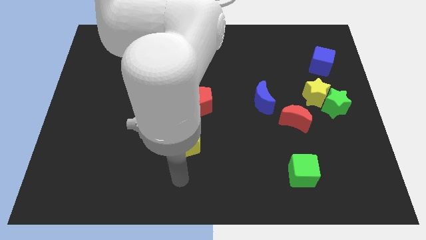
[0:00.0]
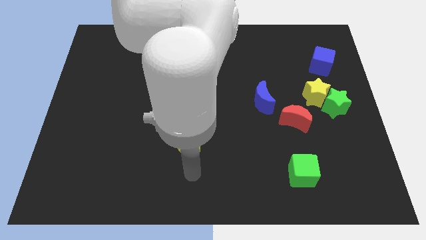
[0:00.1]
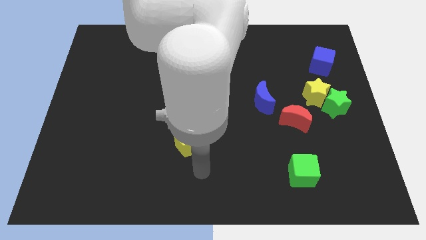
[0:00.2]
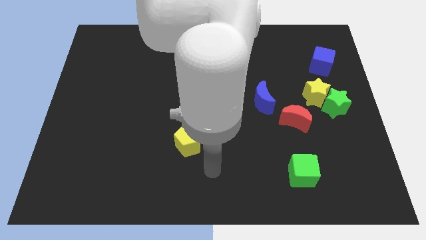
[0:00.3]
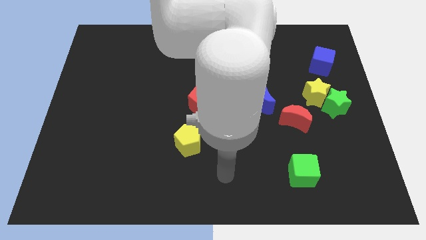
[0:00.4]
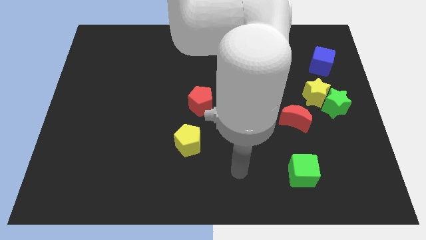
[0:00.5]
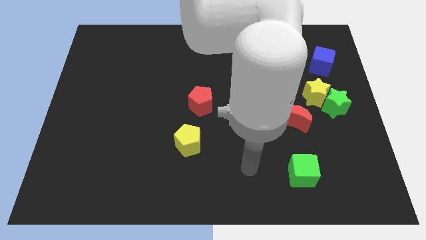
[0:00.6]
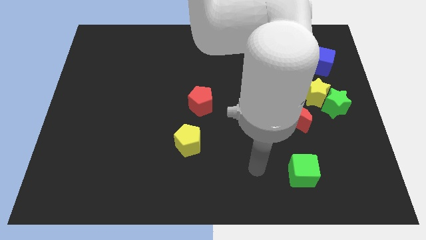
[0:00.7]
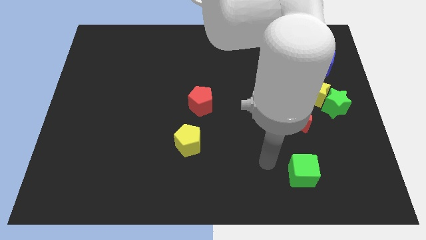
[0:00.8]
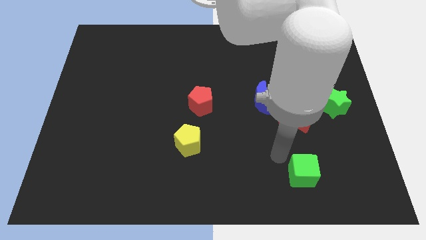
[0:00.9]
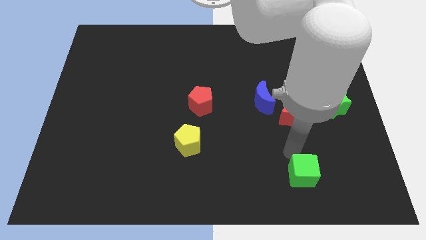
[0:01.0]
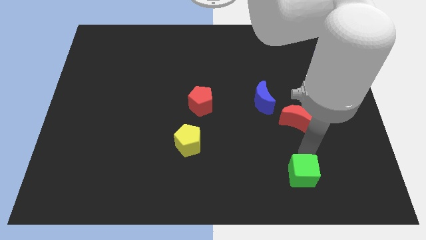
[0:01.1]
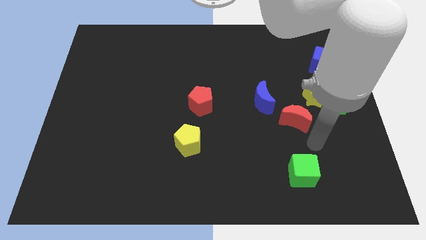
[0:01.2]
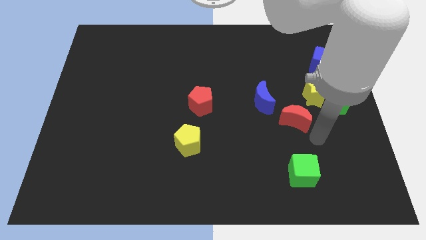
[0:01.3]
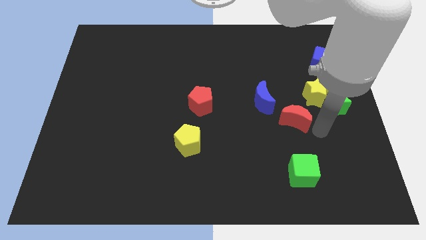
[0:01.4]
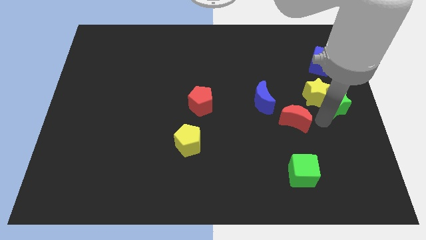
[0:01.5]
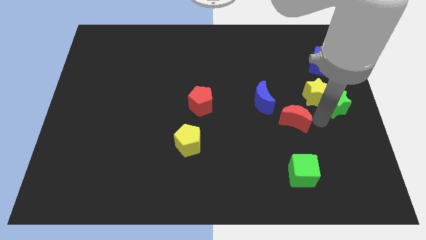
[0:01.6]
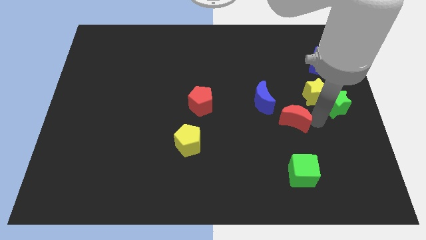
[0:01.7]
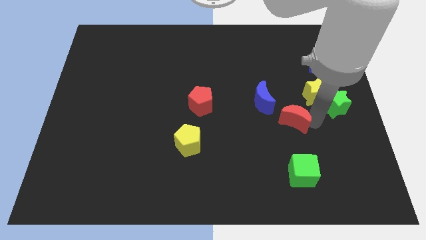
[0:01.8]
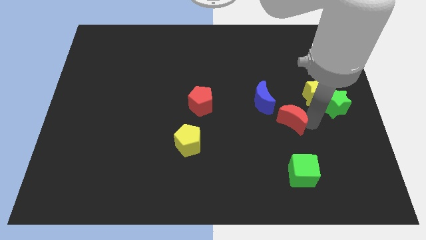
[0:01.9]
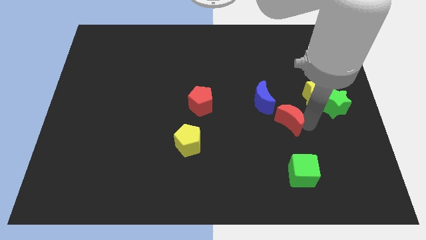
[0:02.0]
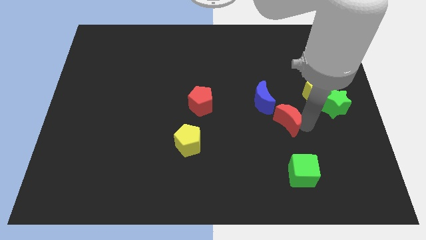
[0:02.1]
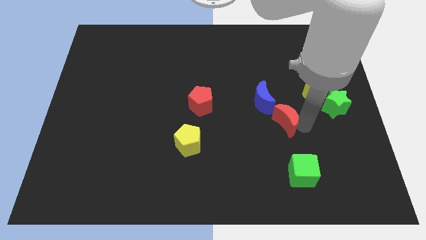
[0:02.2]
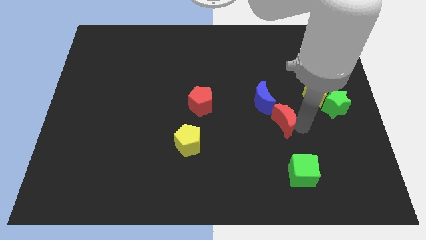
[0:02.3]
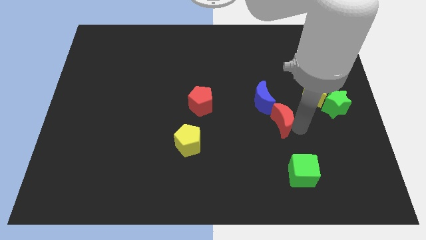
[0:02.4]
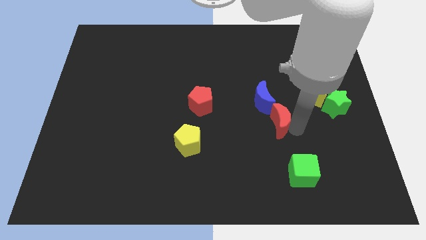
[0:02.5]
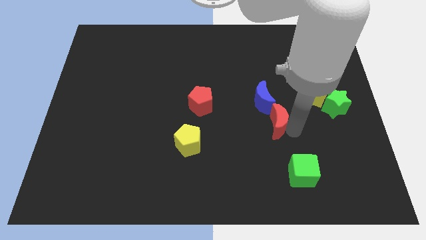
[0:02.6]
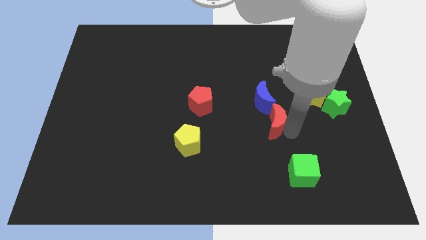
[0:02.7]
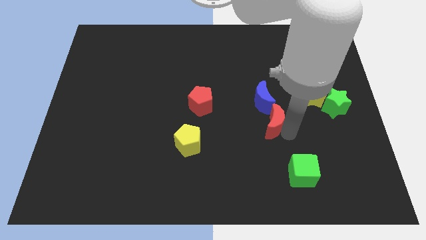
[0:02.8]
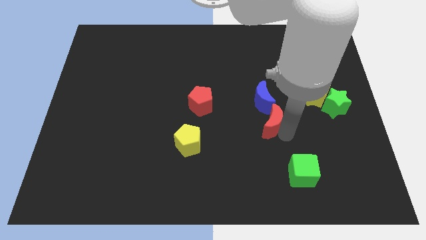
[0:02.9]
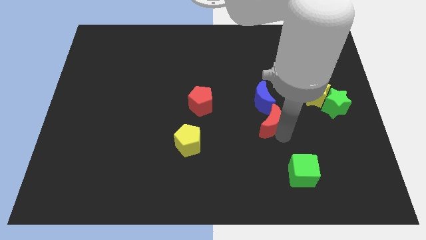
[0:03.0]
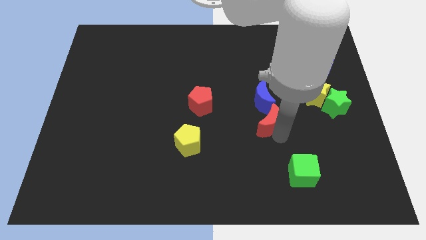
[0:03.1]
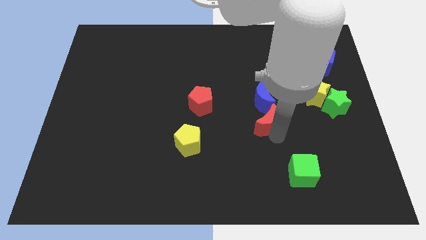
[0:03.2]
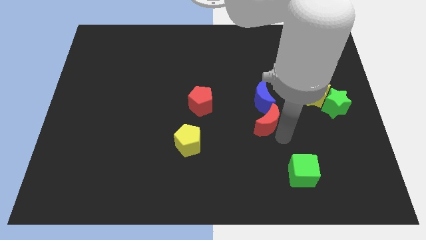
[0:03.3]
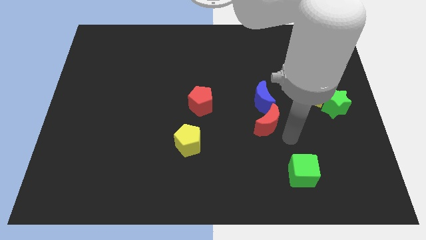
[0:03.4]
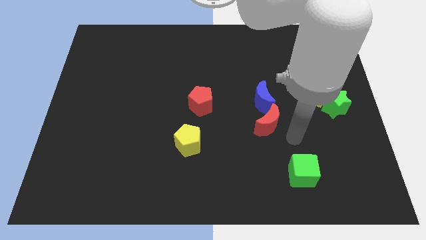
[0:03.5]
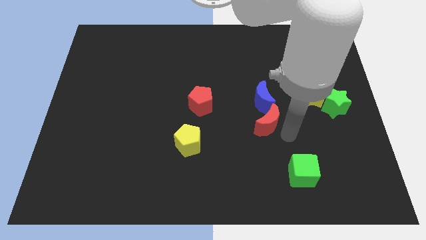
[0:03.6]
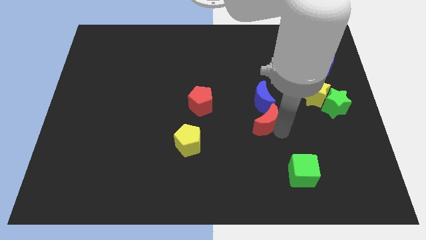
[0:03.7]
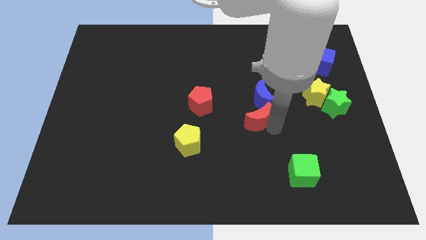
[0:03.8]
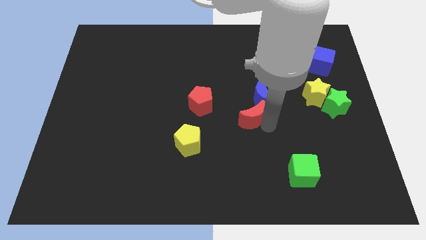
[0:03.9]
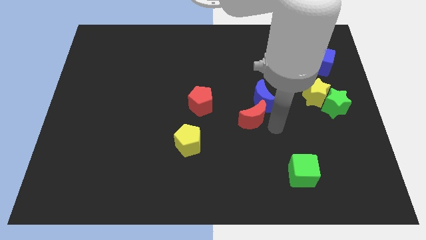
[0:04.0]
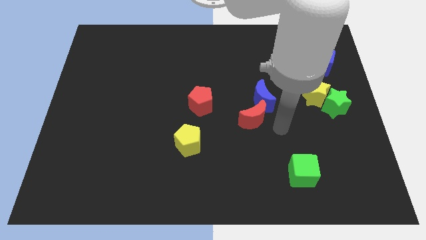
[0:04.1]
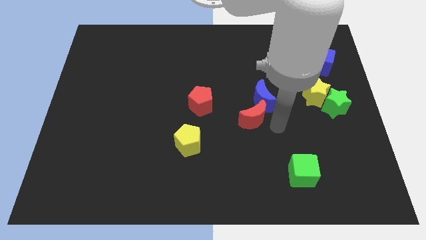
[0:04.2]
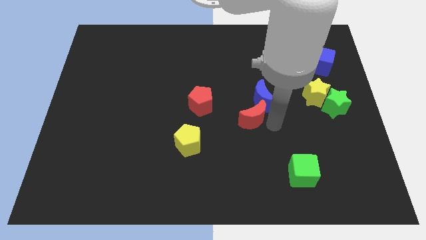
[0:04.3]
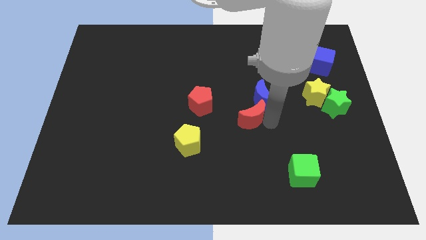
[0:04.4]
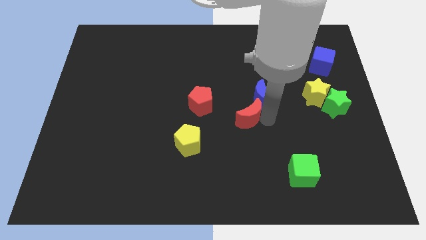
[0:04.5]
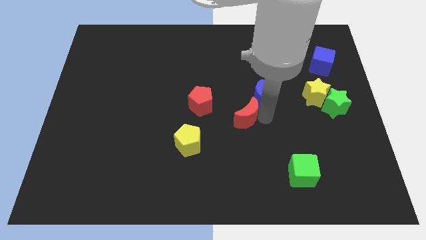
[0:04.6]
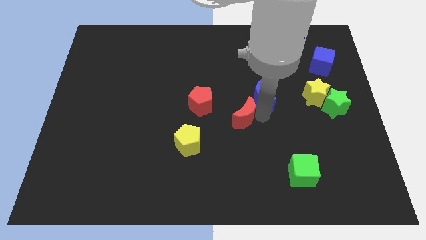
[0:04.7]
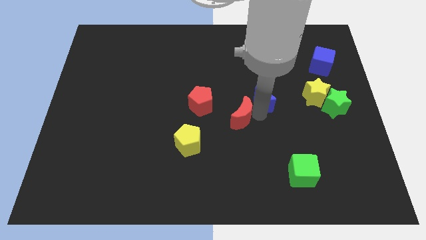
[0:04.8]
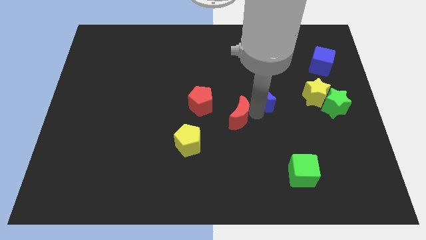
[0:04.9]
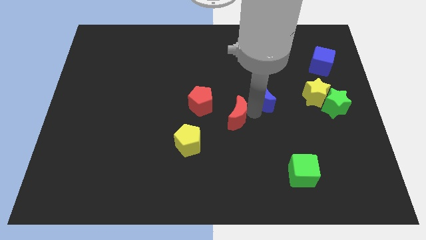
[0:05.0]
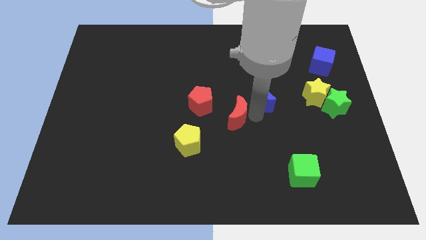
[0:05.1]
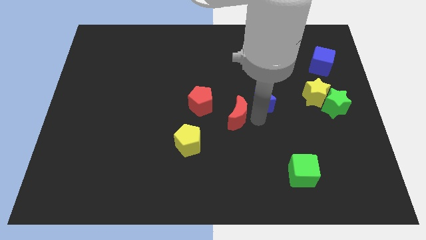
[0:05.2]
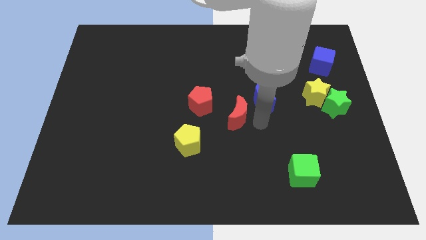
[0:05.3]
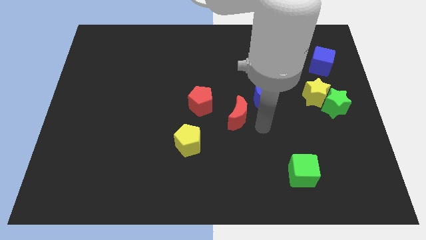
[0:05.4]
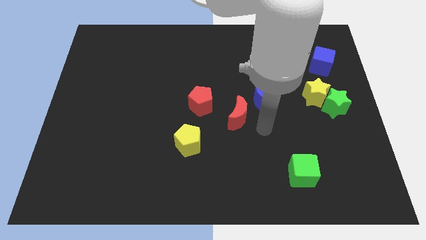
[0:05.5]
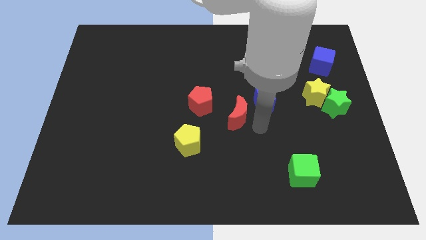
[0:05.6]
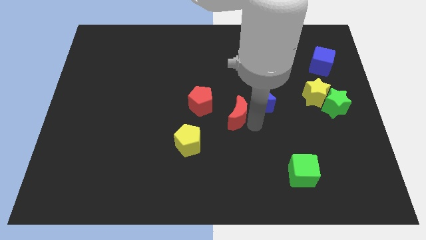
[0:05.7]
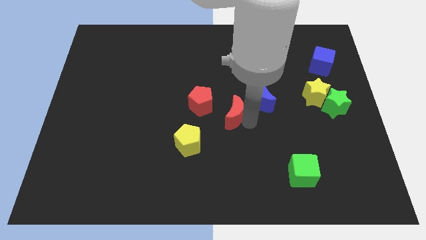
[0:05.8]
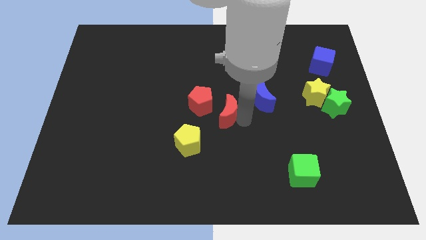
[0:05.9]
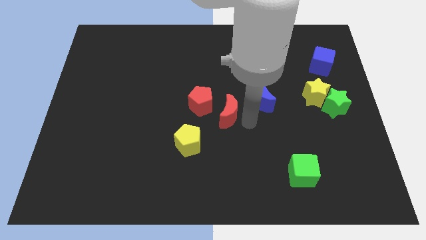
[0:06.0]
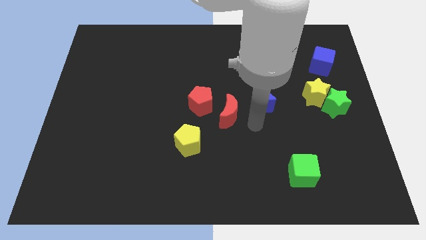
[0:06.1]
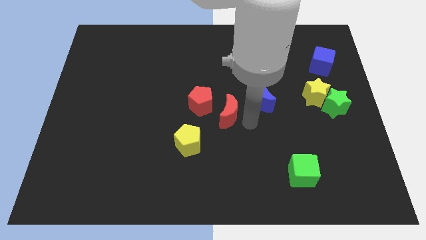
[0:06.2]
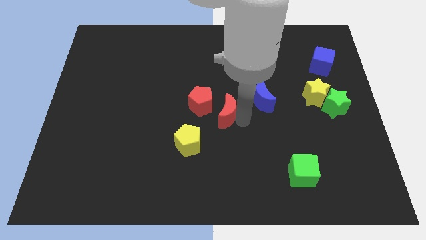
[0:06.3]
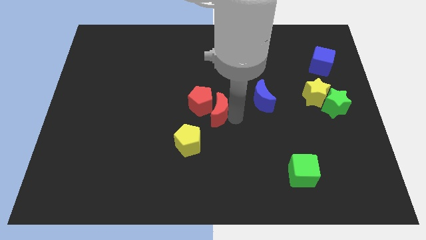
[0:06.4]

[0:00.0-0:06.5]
slide the red moon towards the red pentagon

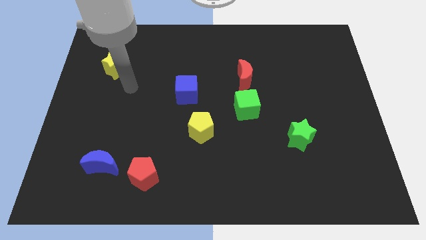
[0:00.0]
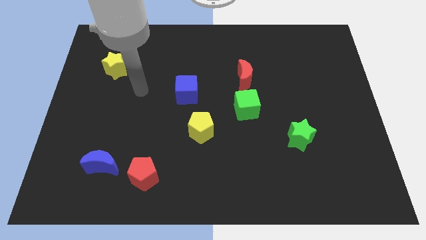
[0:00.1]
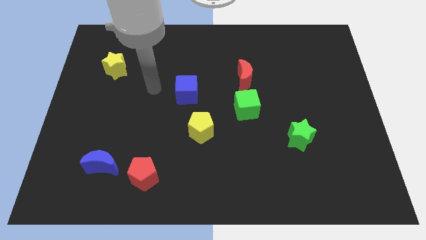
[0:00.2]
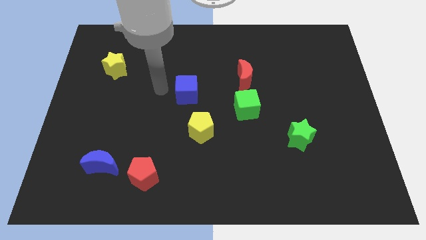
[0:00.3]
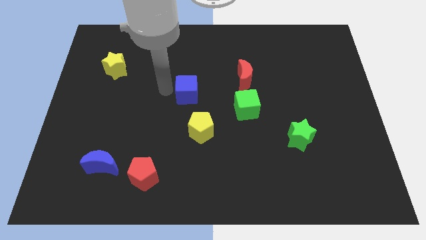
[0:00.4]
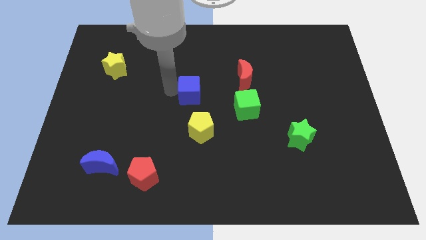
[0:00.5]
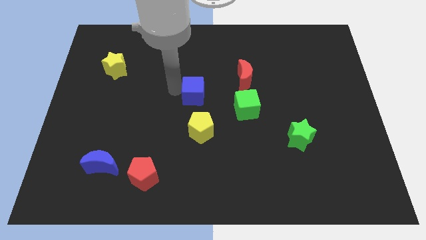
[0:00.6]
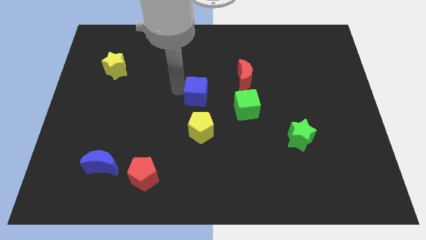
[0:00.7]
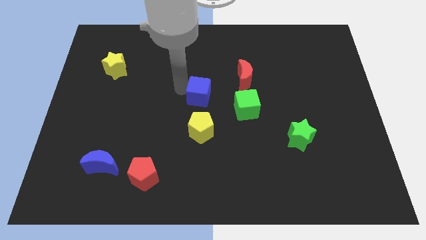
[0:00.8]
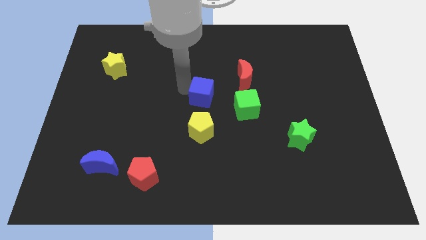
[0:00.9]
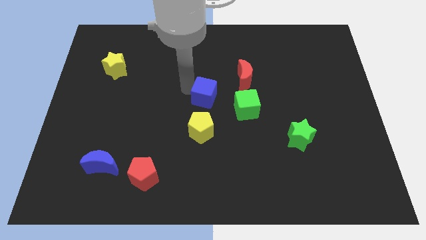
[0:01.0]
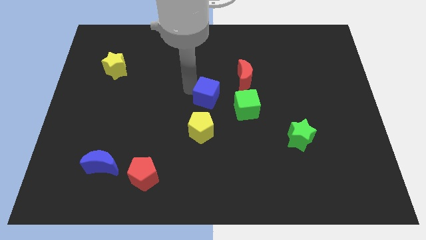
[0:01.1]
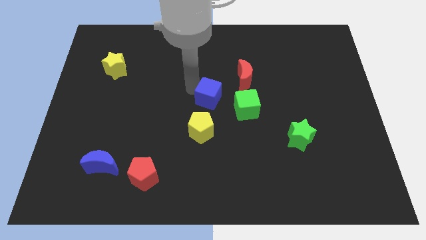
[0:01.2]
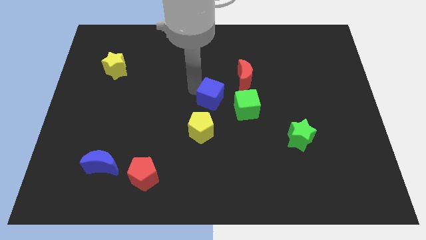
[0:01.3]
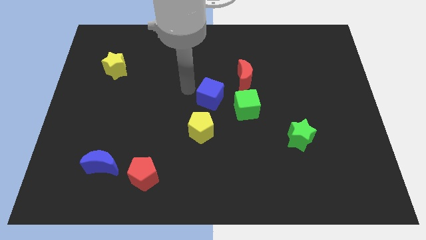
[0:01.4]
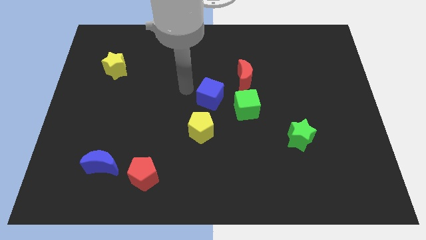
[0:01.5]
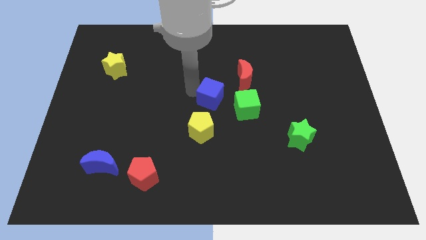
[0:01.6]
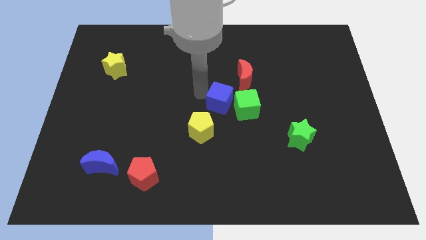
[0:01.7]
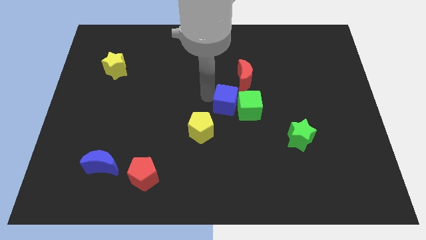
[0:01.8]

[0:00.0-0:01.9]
slide the blue cube to the green cube
